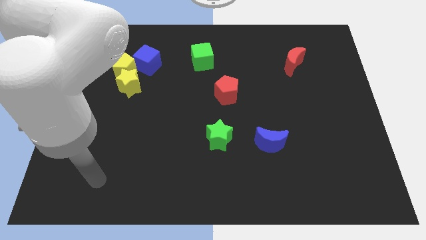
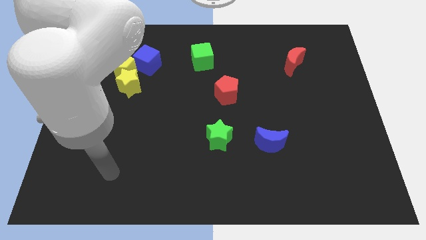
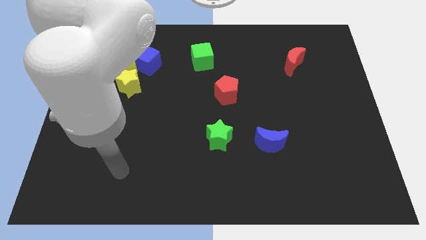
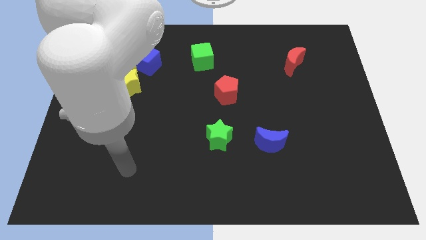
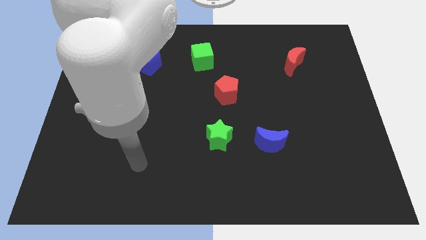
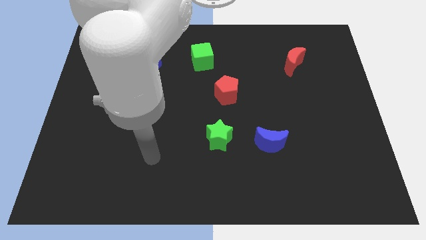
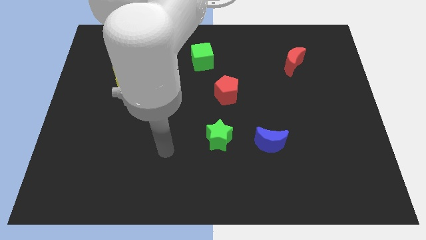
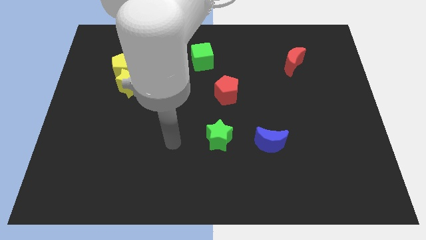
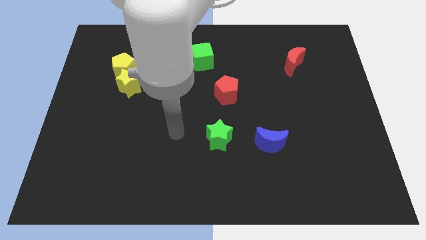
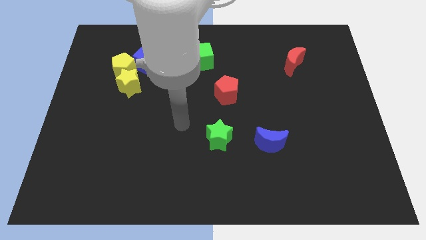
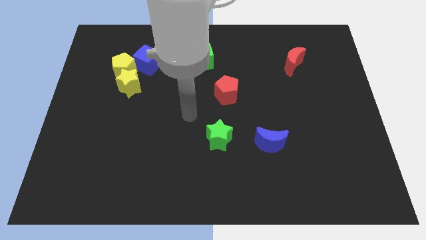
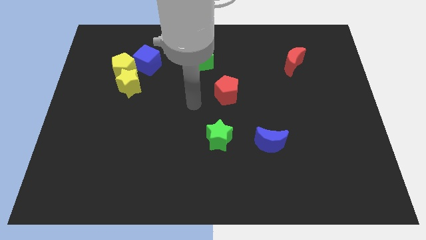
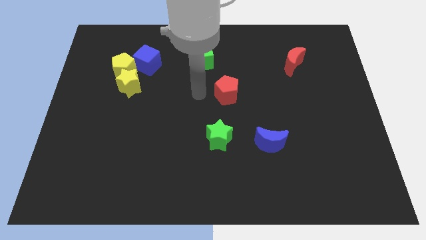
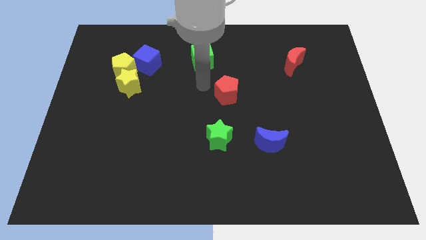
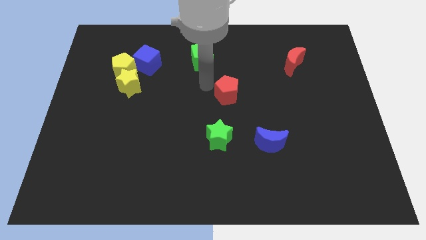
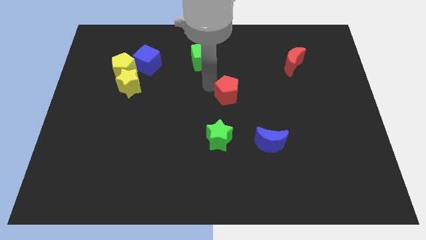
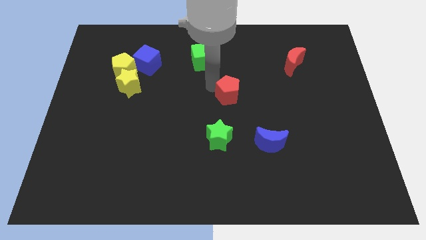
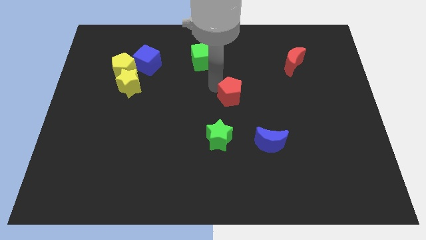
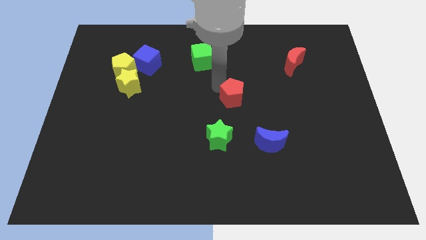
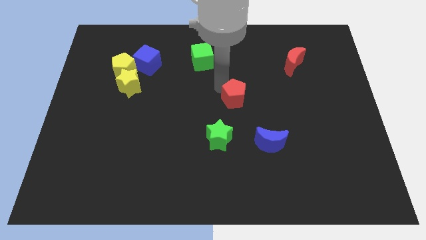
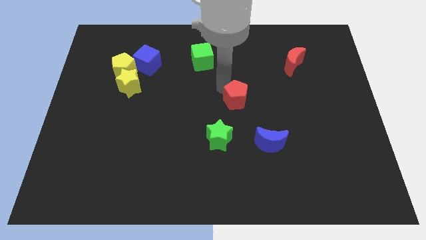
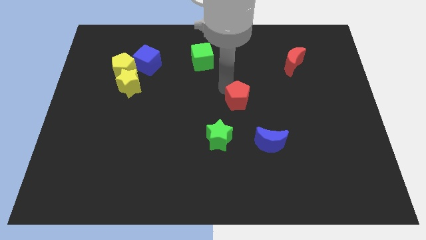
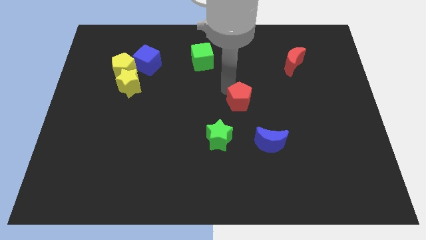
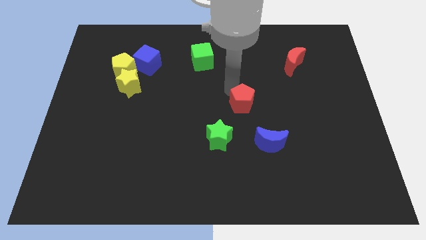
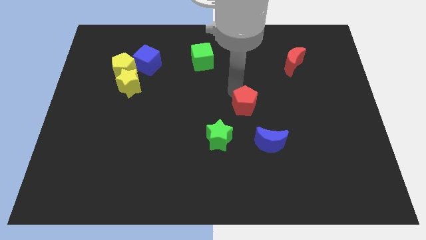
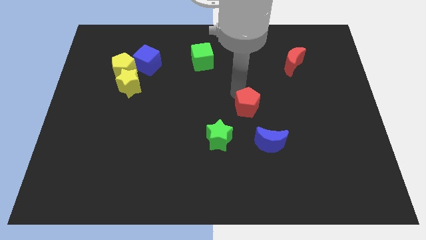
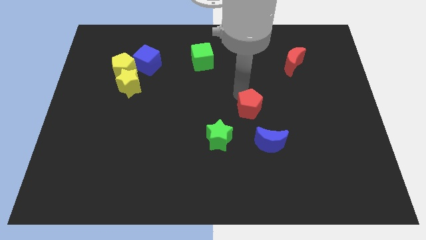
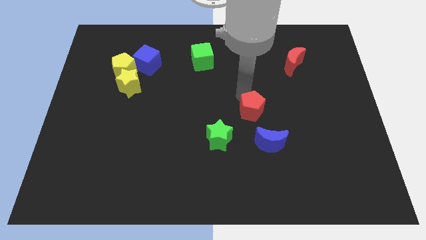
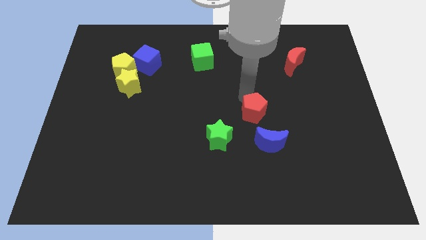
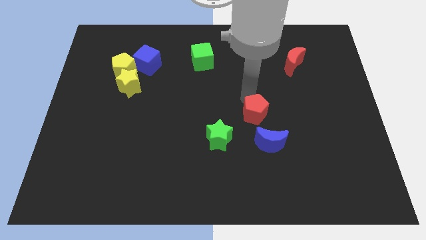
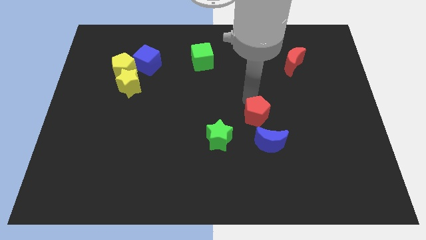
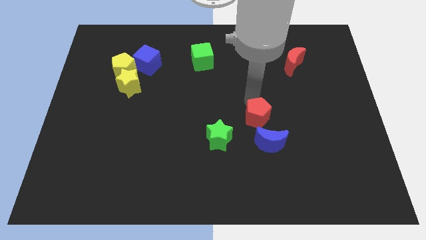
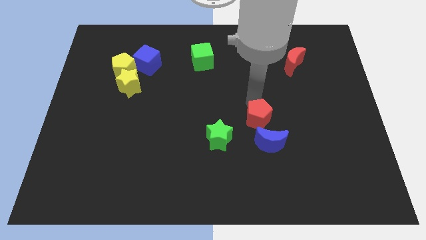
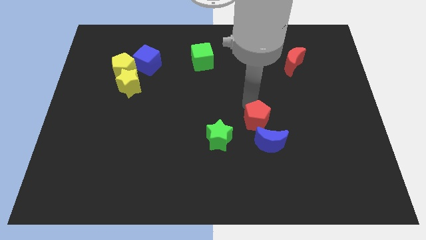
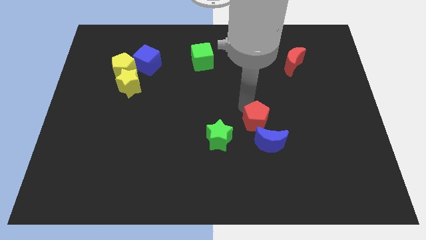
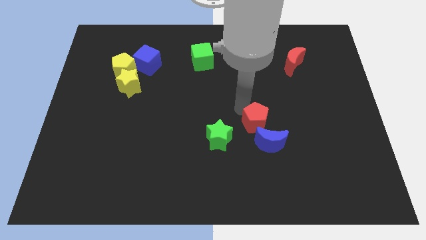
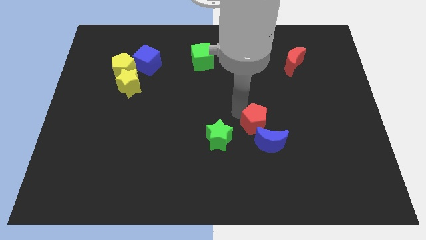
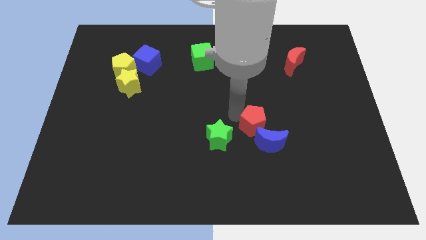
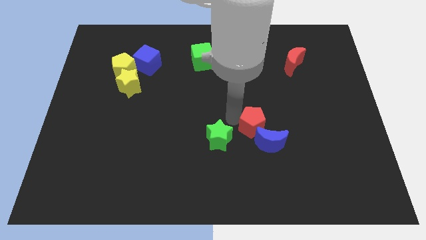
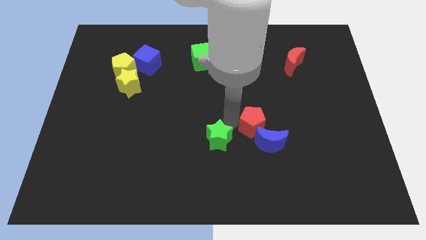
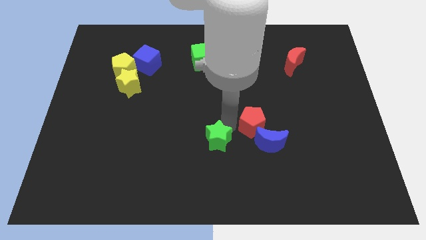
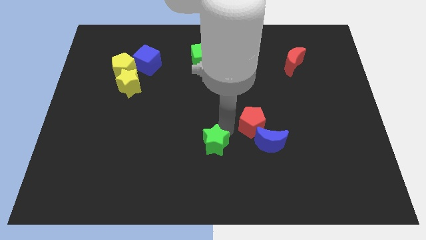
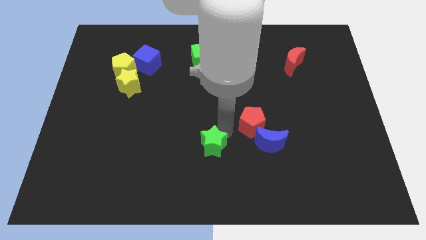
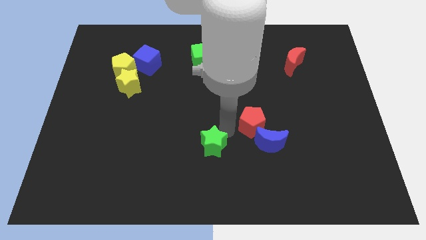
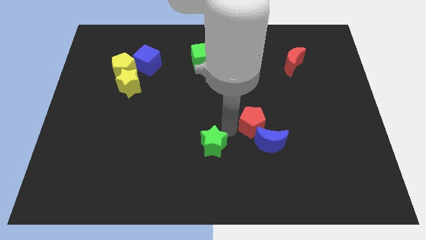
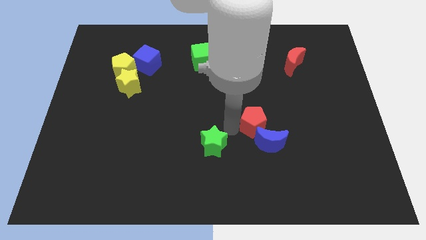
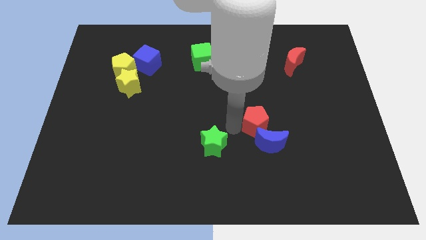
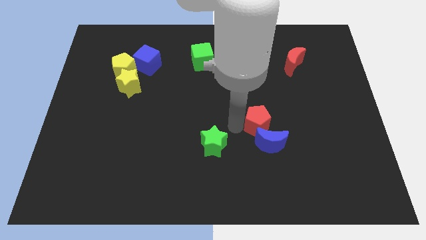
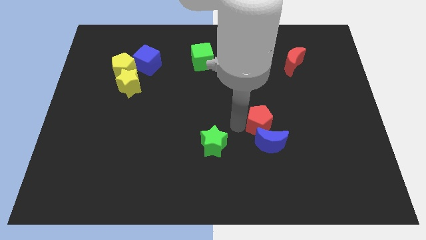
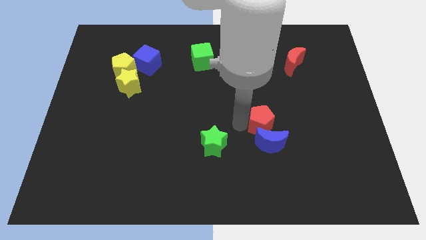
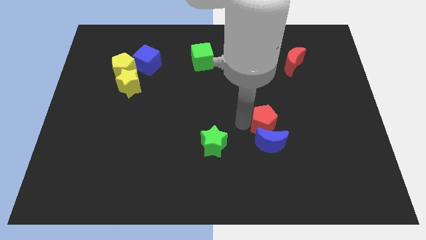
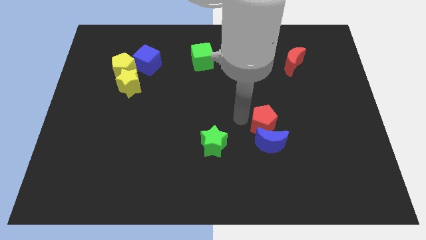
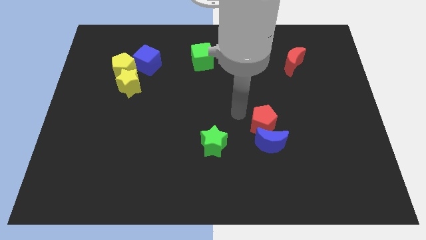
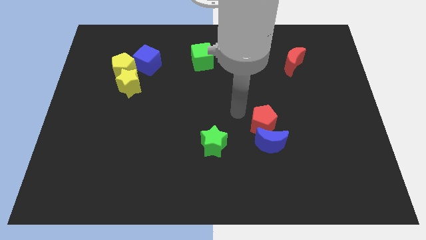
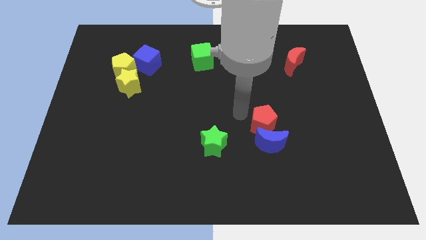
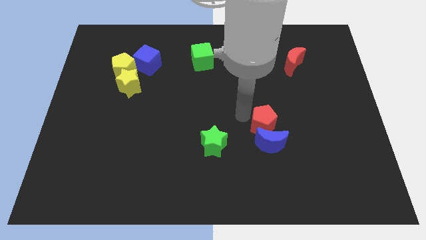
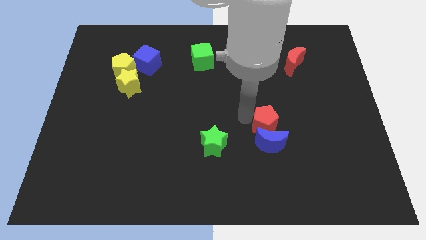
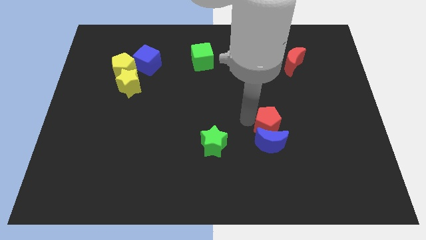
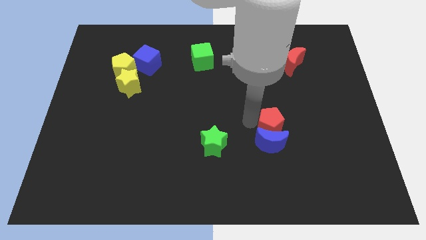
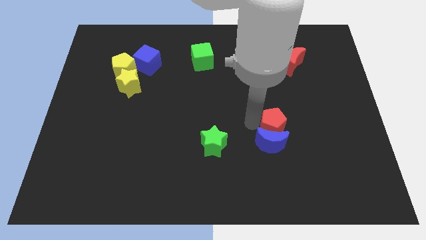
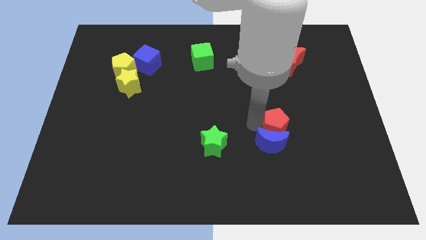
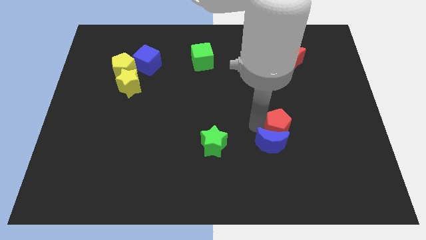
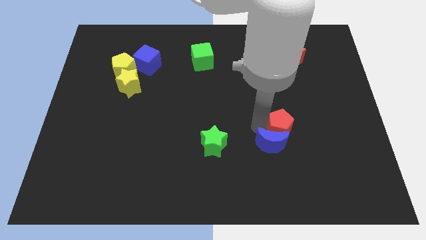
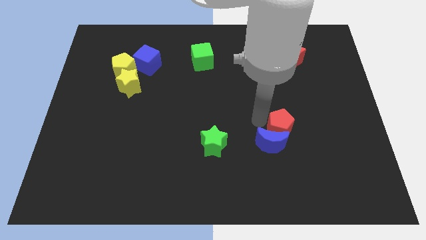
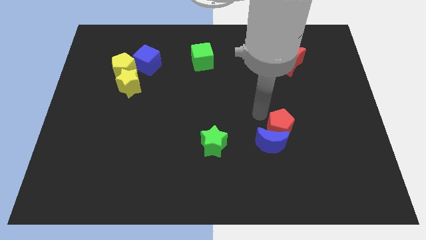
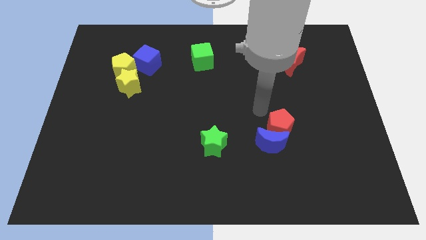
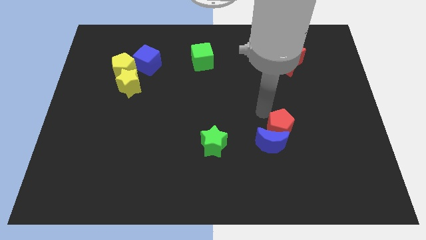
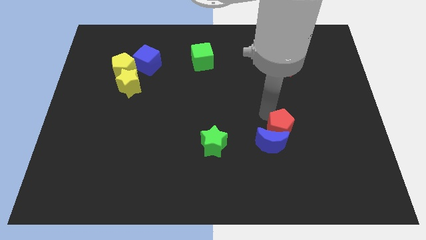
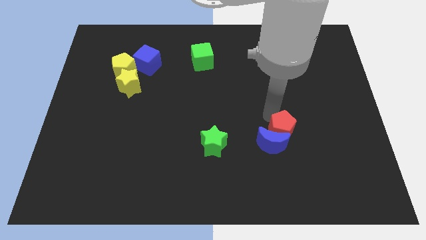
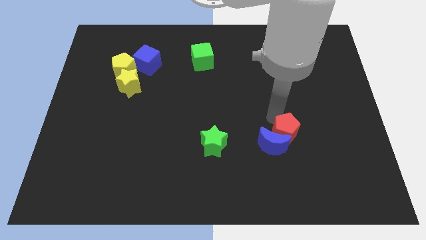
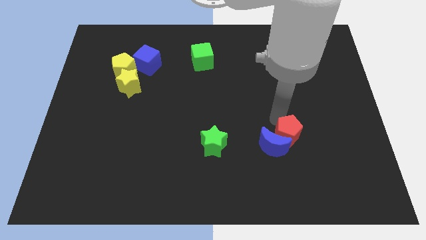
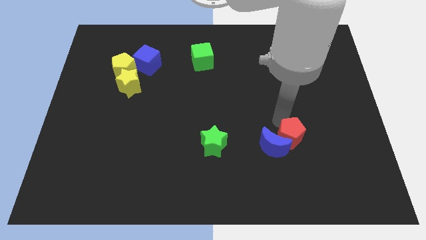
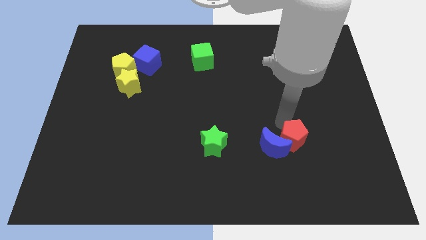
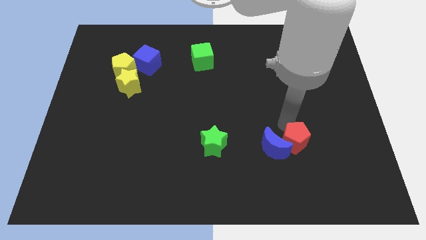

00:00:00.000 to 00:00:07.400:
move the red pentagon downwards and to the right diagonally

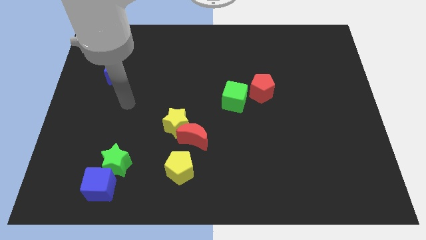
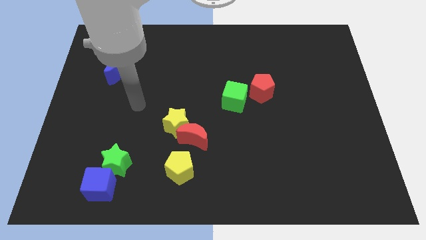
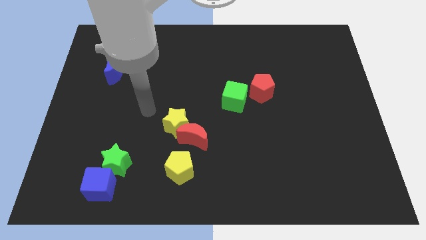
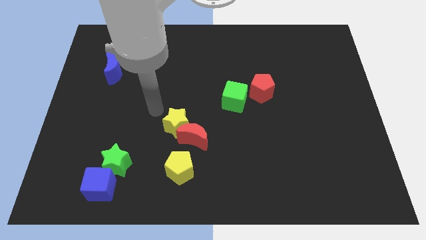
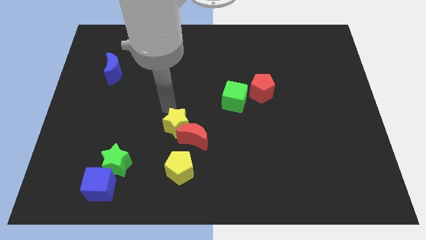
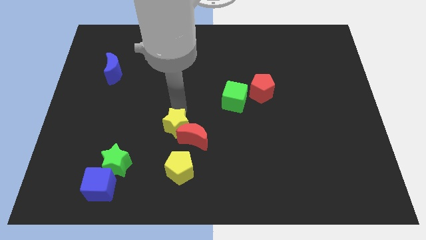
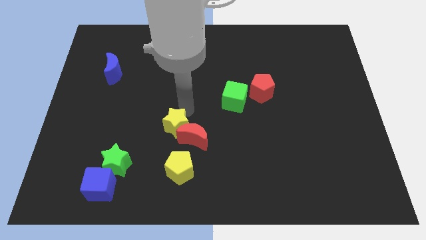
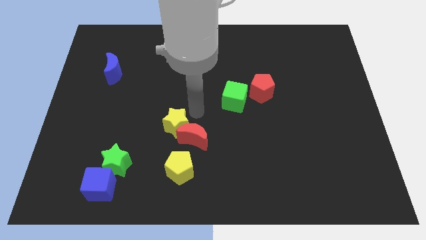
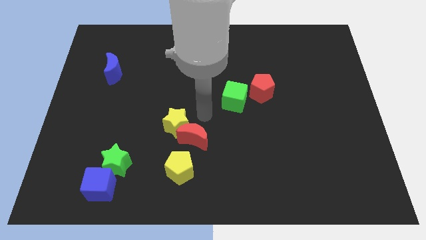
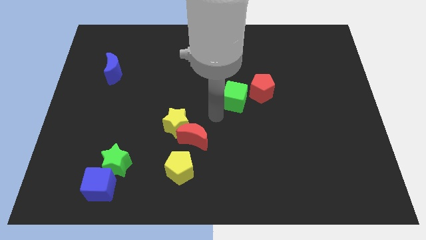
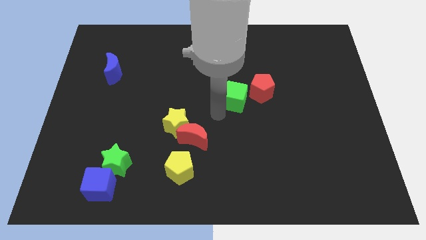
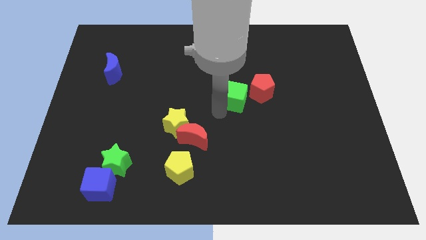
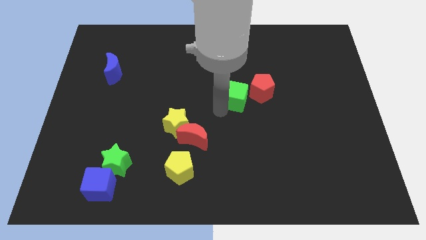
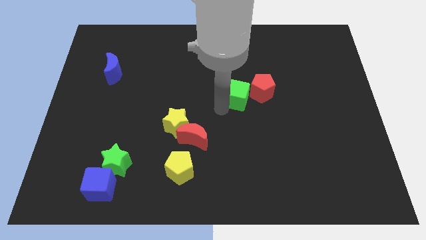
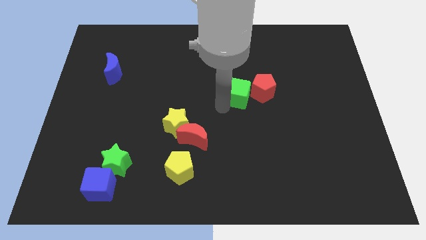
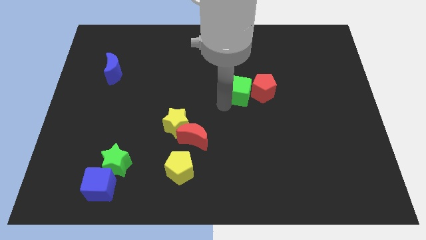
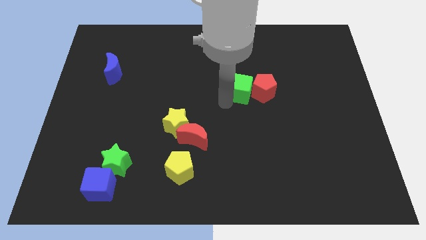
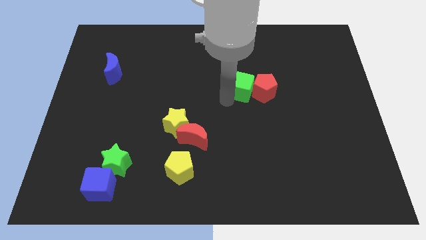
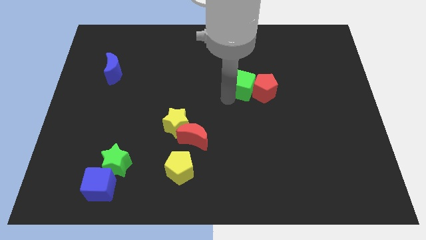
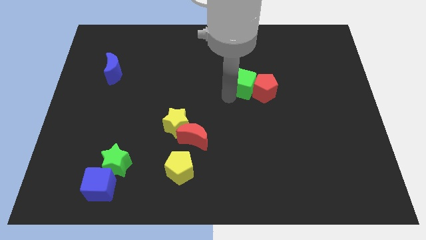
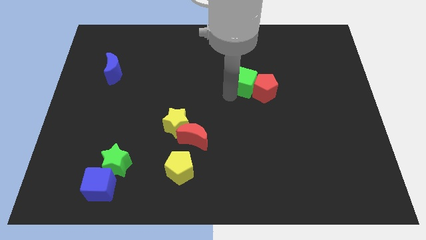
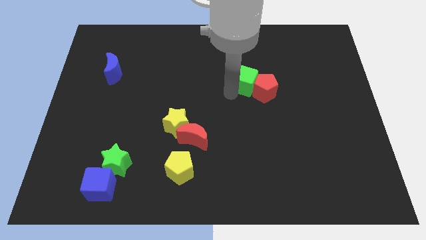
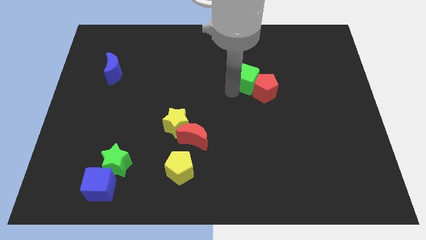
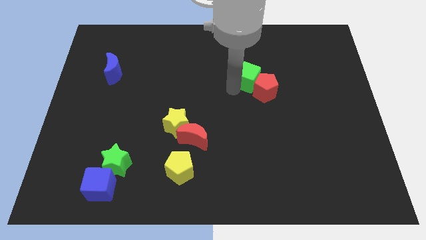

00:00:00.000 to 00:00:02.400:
push the green cube a little bit up and right diagonally
